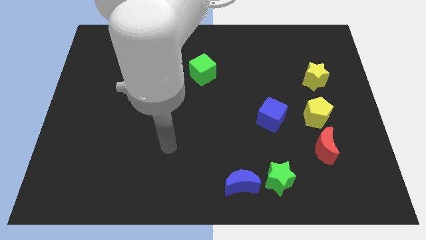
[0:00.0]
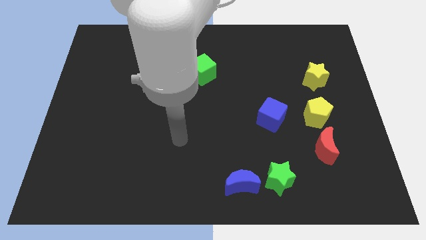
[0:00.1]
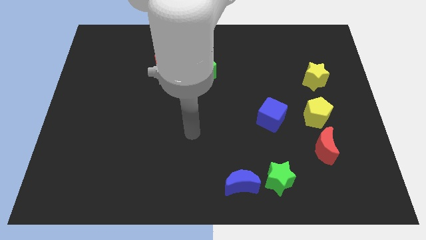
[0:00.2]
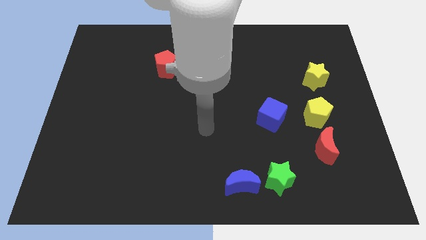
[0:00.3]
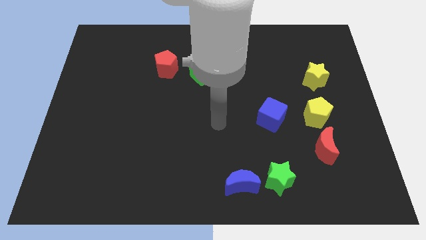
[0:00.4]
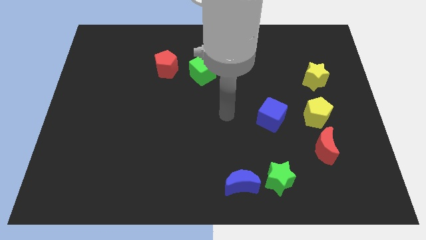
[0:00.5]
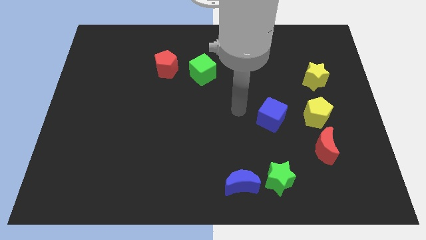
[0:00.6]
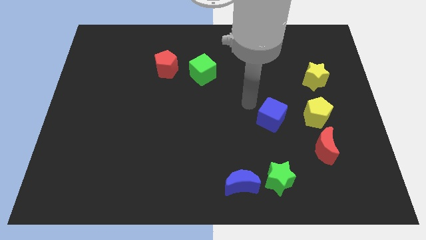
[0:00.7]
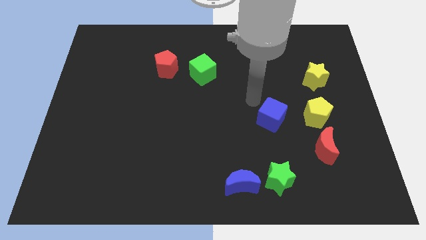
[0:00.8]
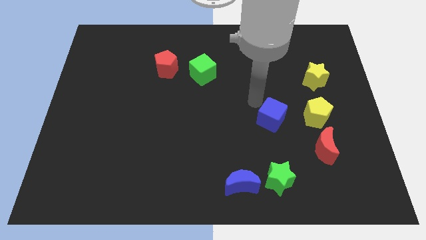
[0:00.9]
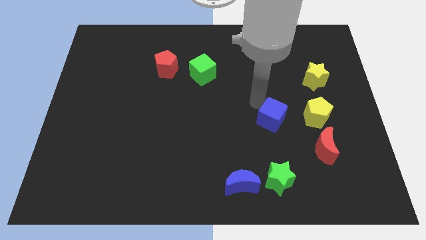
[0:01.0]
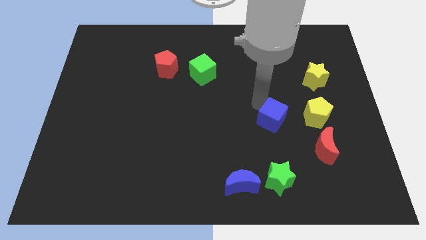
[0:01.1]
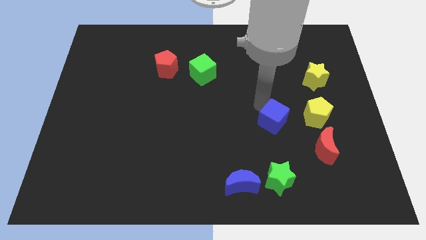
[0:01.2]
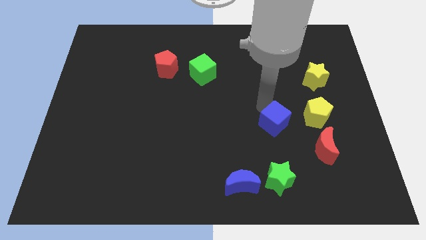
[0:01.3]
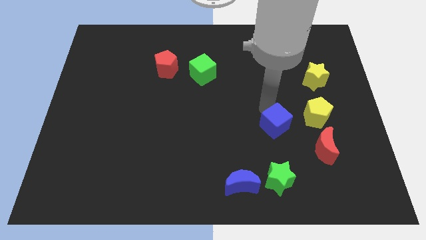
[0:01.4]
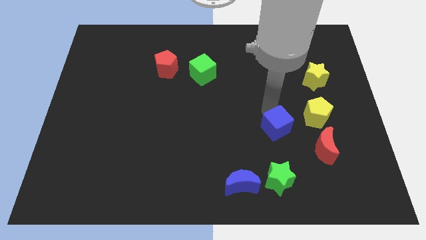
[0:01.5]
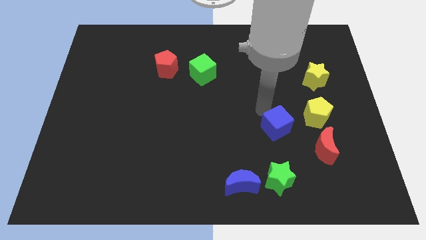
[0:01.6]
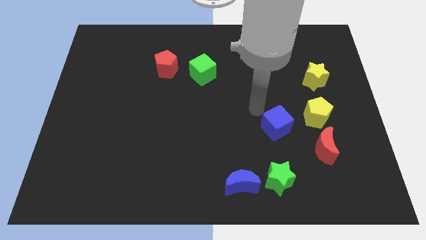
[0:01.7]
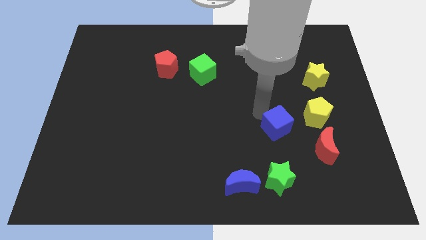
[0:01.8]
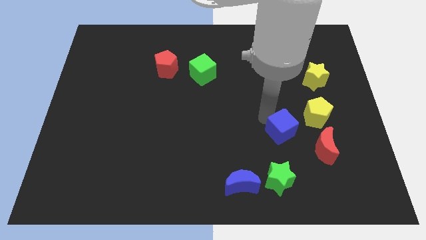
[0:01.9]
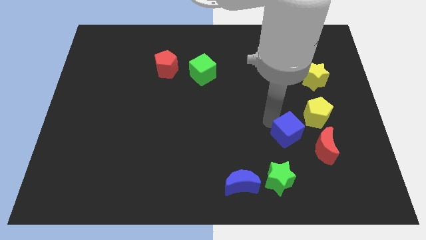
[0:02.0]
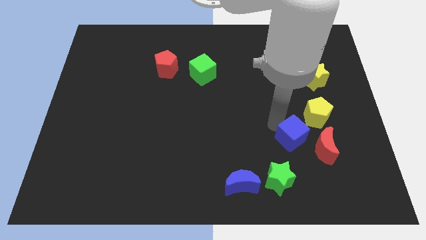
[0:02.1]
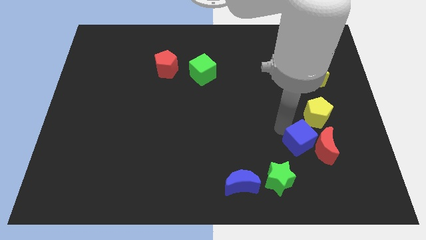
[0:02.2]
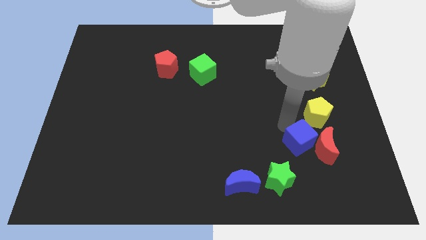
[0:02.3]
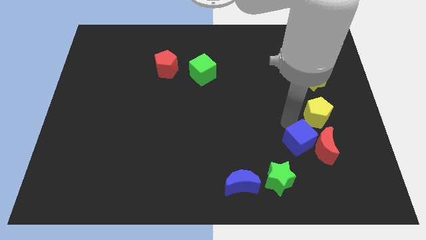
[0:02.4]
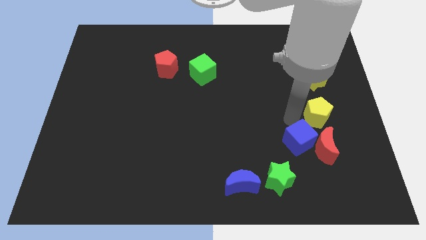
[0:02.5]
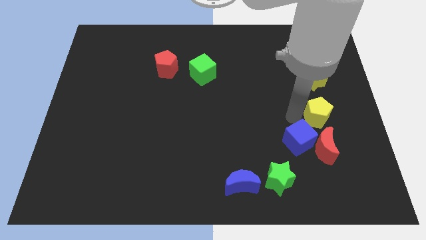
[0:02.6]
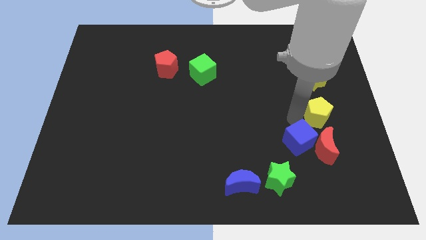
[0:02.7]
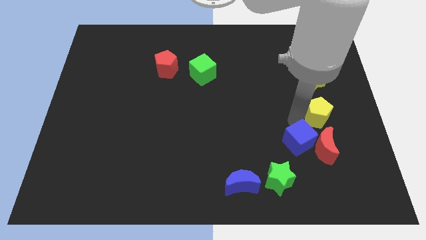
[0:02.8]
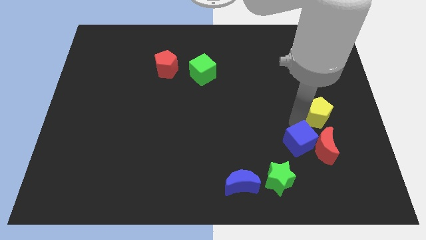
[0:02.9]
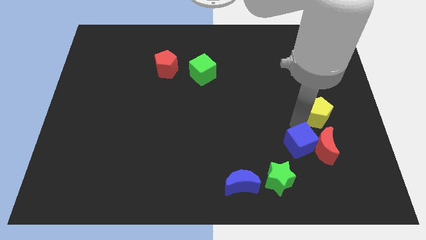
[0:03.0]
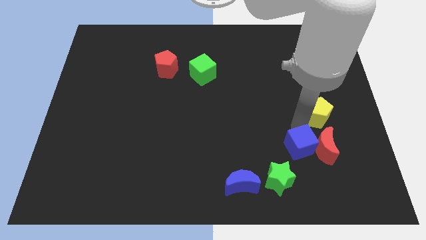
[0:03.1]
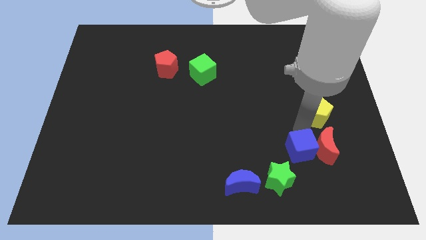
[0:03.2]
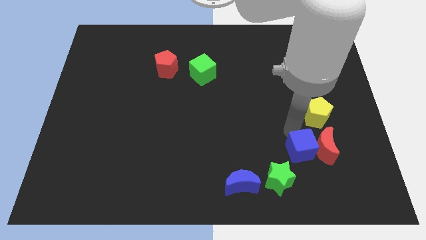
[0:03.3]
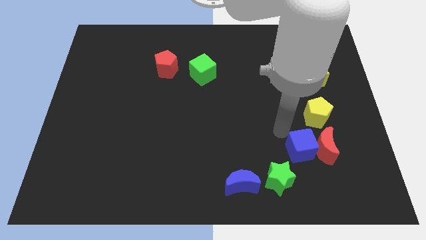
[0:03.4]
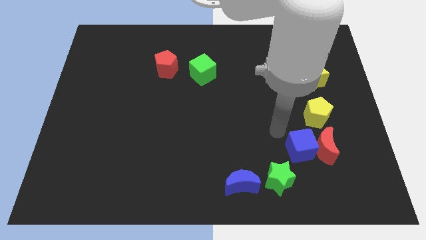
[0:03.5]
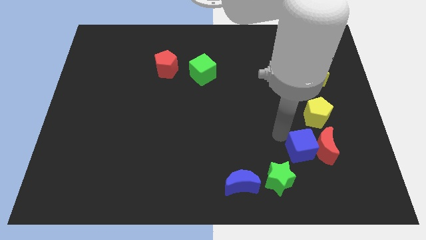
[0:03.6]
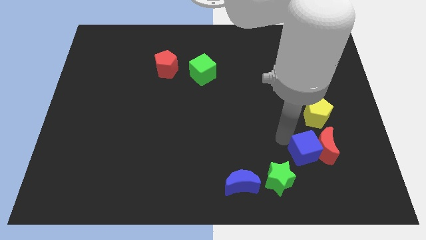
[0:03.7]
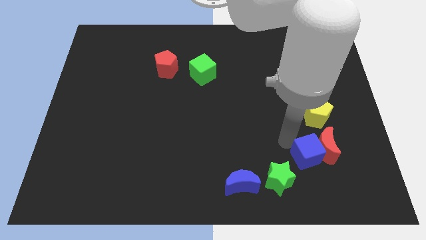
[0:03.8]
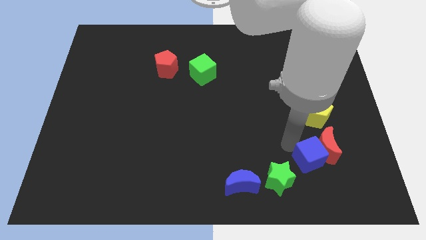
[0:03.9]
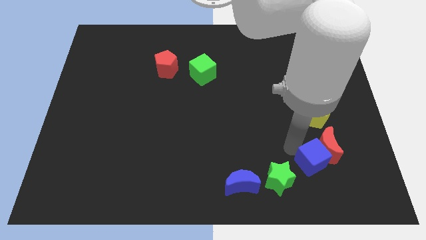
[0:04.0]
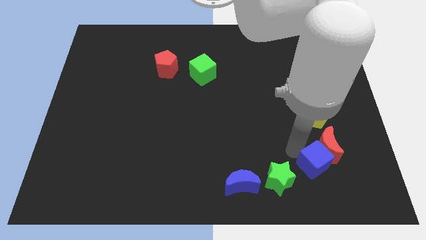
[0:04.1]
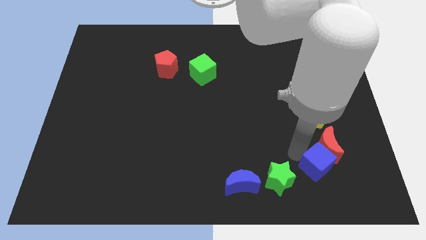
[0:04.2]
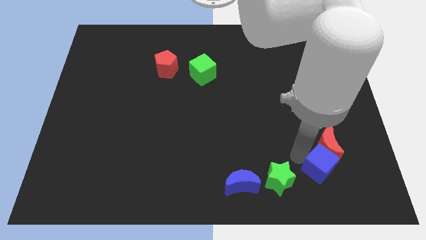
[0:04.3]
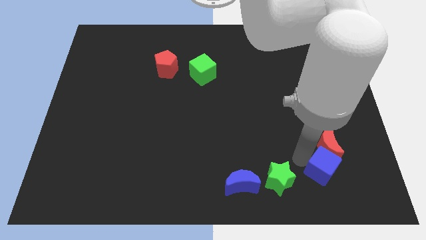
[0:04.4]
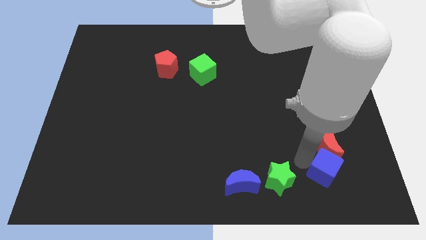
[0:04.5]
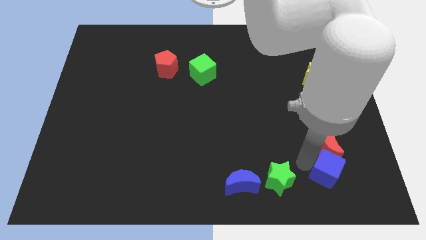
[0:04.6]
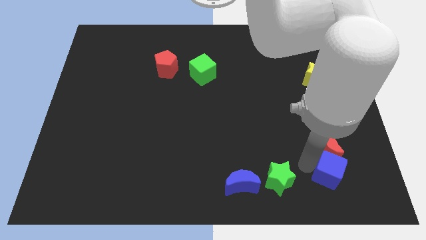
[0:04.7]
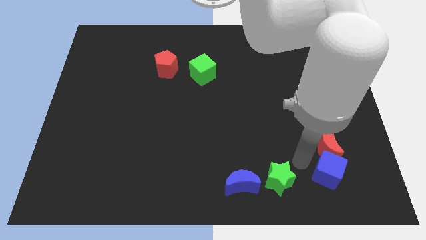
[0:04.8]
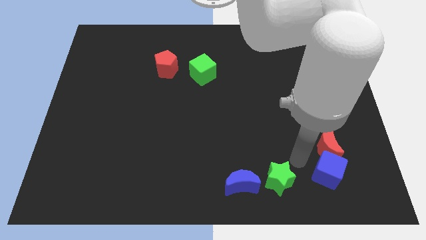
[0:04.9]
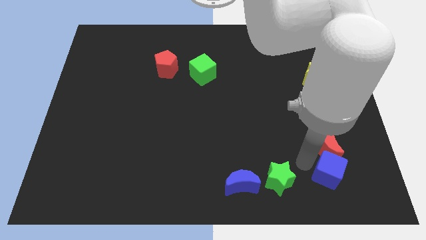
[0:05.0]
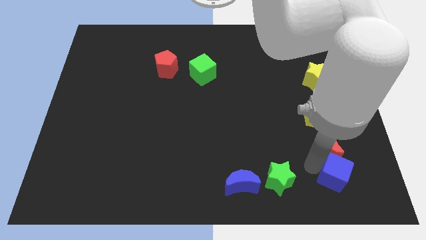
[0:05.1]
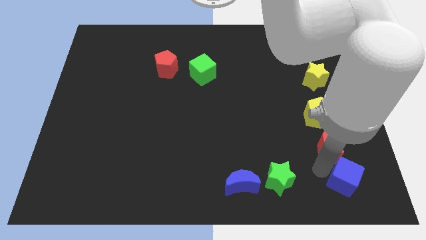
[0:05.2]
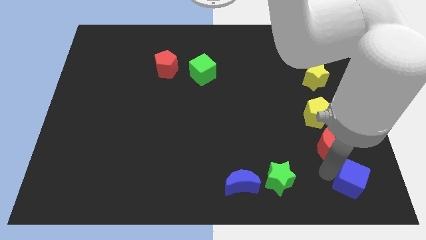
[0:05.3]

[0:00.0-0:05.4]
put the blue cube to the bottom right of the board

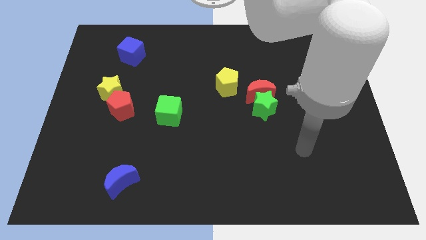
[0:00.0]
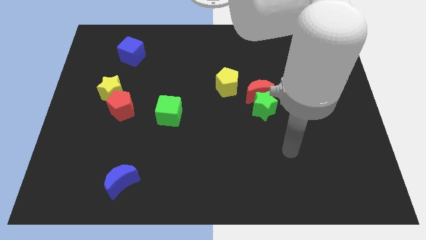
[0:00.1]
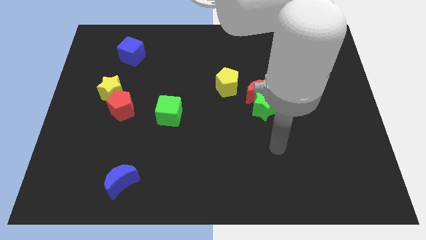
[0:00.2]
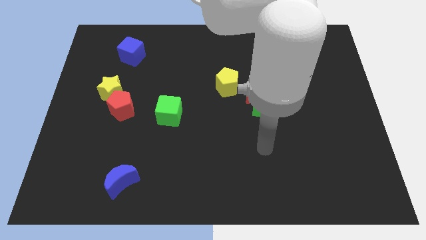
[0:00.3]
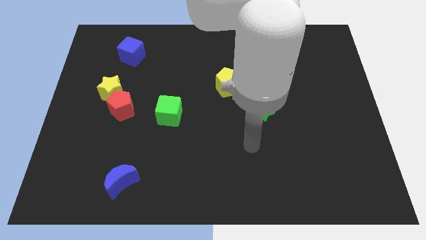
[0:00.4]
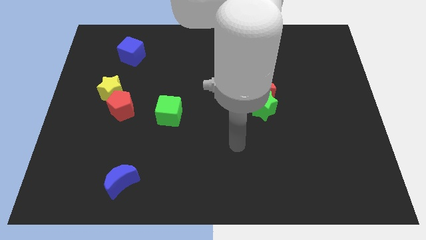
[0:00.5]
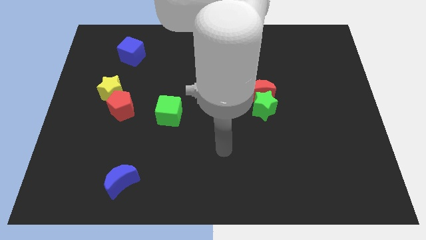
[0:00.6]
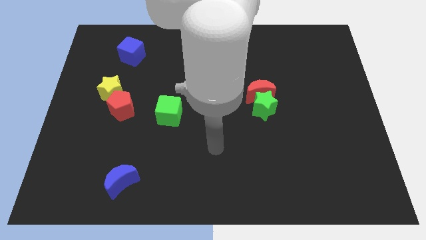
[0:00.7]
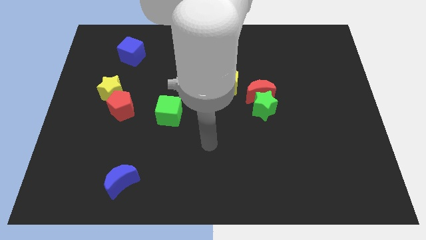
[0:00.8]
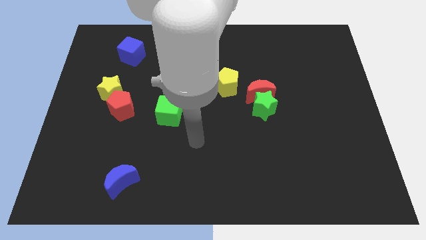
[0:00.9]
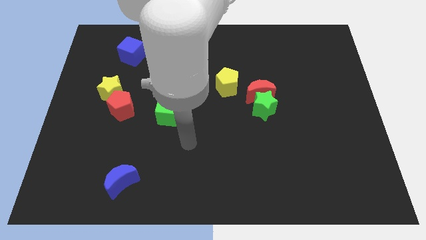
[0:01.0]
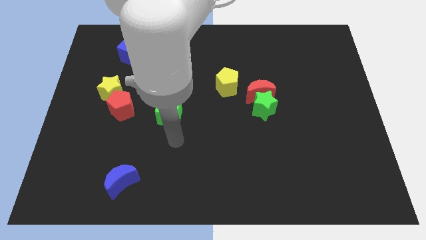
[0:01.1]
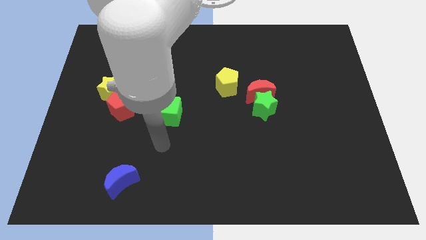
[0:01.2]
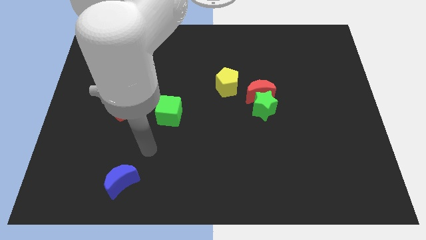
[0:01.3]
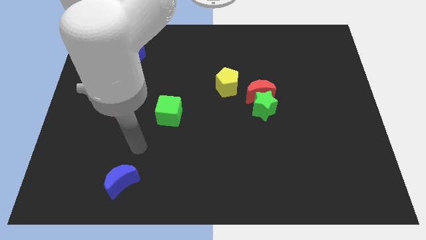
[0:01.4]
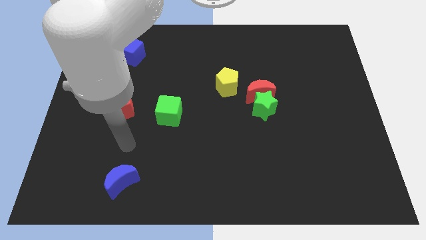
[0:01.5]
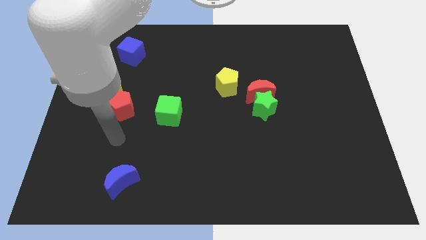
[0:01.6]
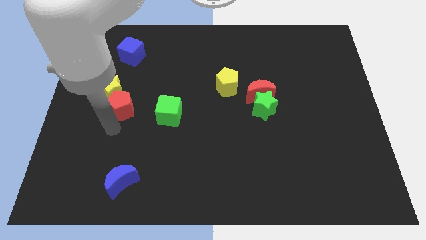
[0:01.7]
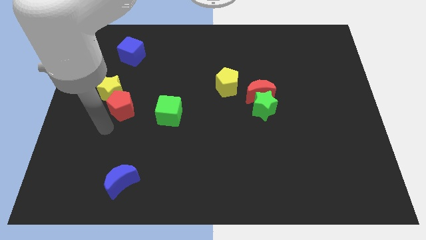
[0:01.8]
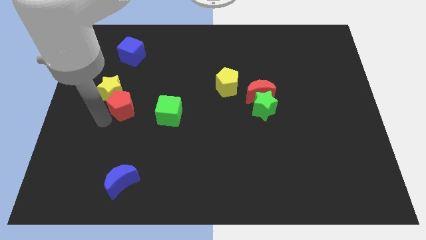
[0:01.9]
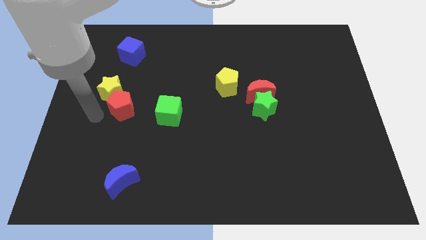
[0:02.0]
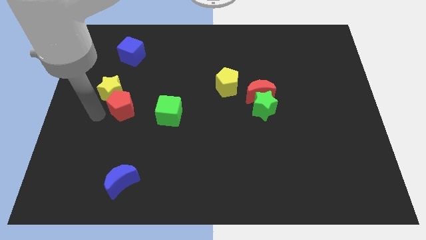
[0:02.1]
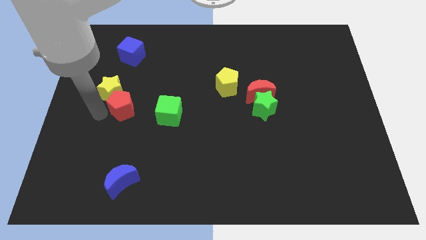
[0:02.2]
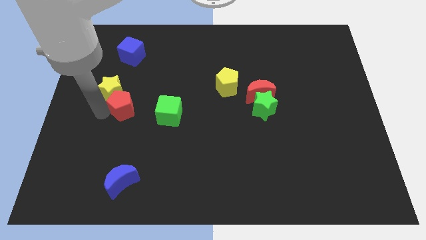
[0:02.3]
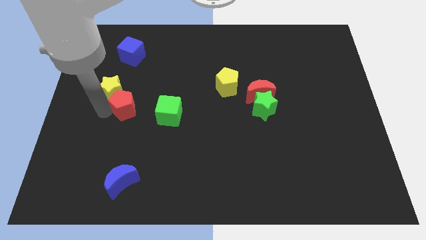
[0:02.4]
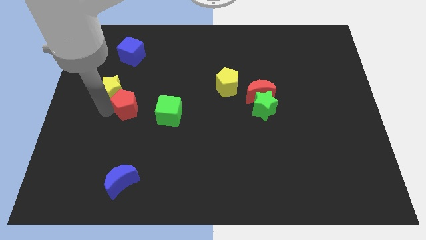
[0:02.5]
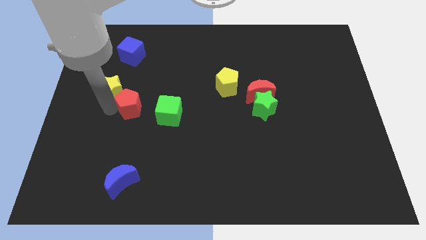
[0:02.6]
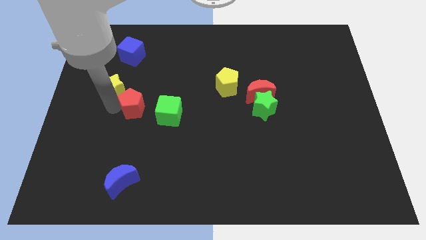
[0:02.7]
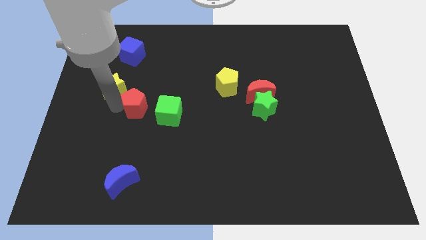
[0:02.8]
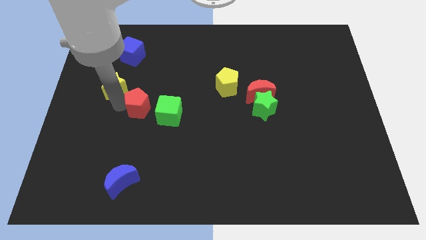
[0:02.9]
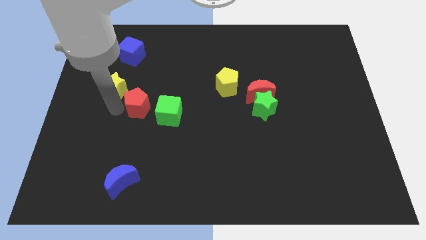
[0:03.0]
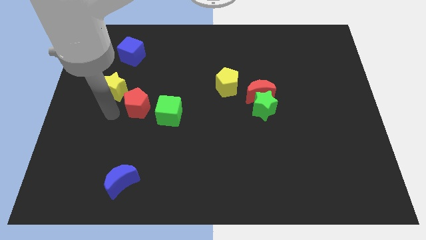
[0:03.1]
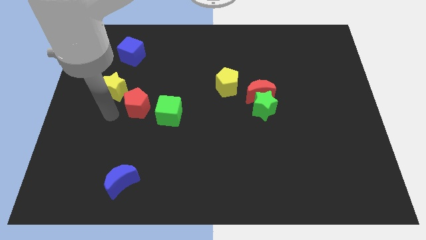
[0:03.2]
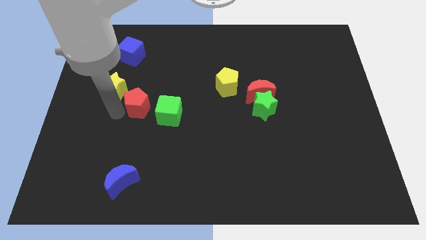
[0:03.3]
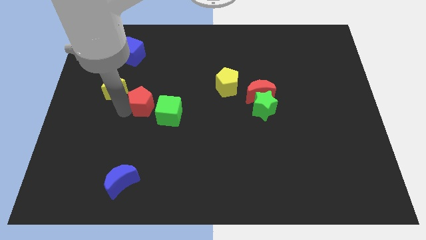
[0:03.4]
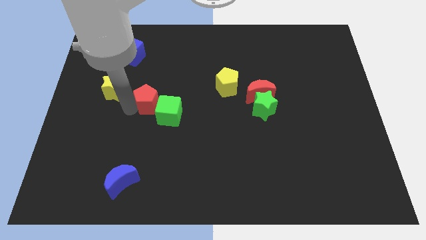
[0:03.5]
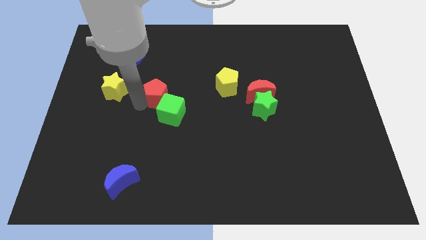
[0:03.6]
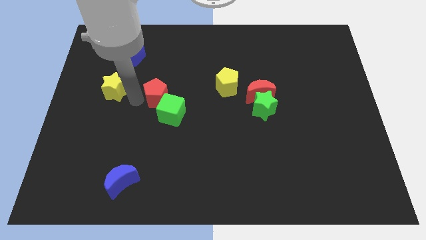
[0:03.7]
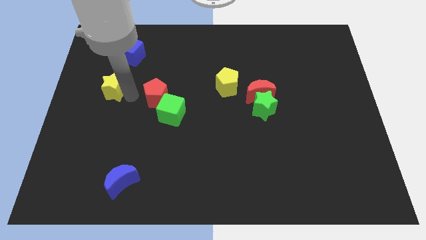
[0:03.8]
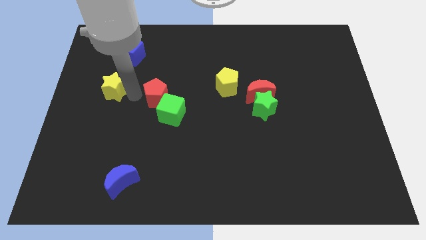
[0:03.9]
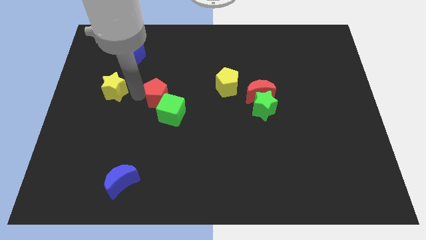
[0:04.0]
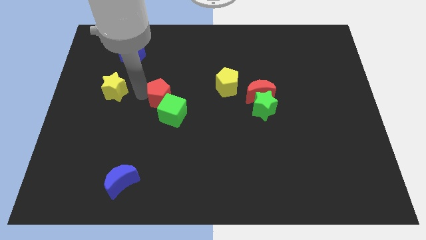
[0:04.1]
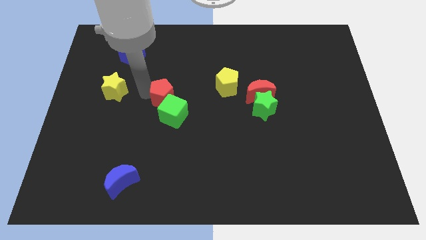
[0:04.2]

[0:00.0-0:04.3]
slide the red pentagon to the middle
